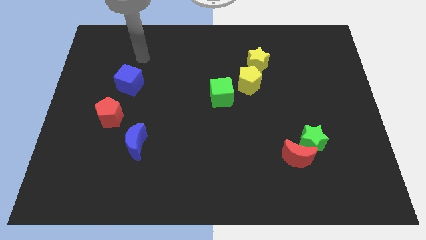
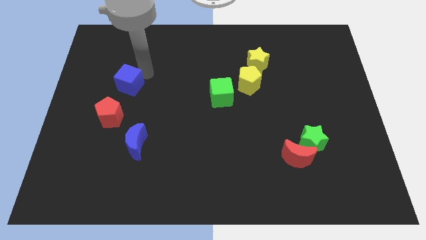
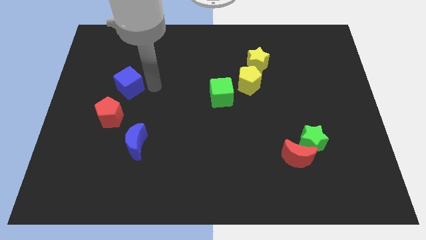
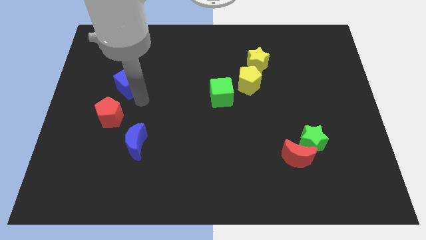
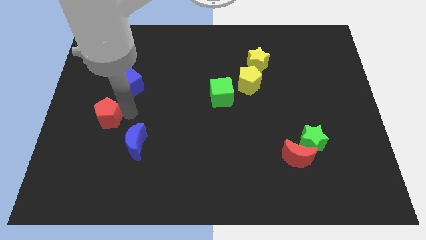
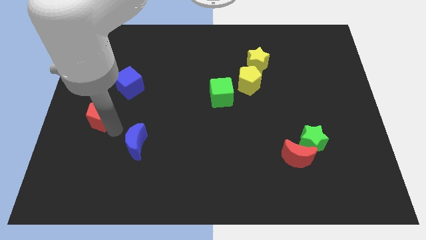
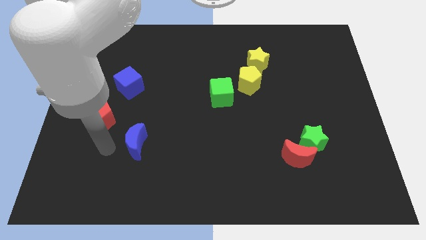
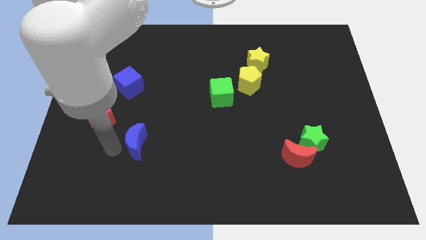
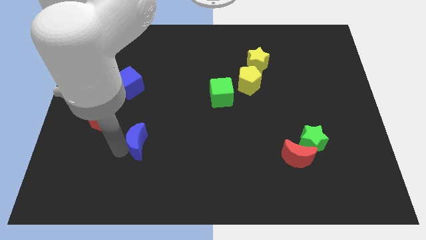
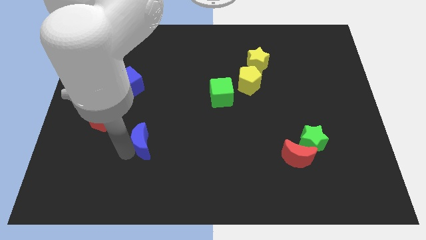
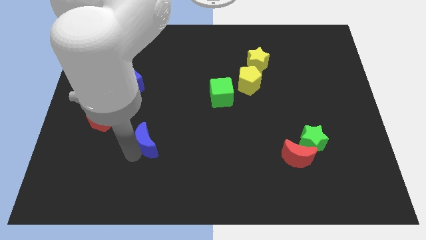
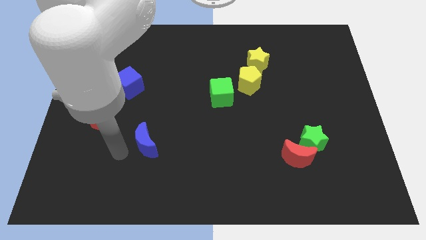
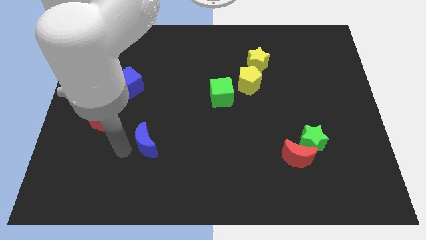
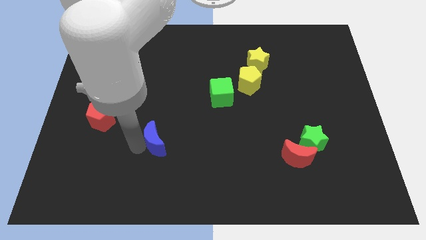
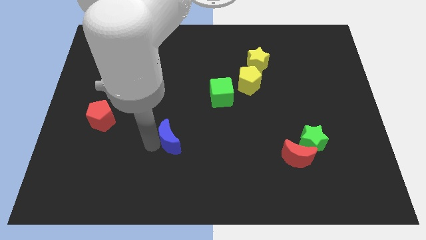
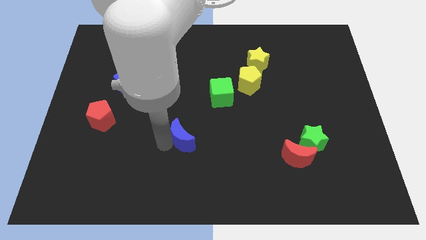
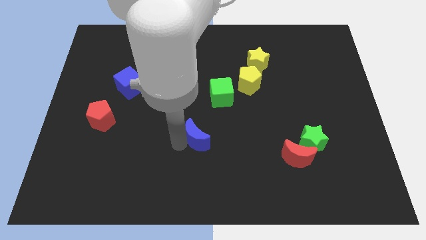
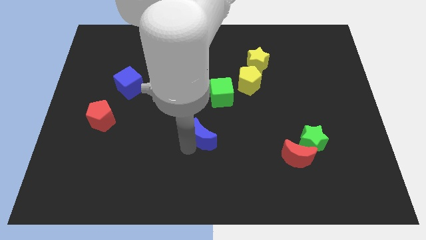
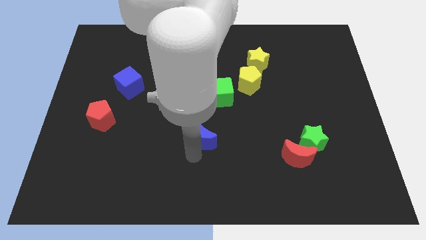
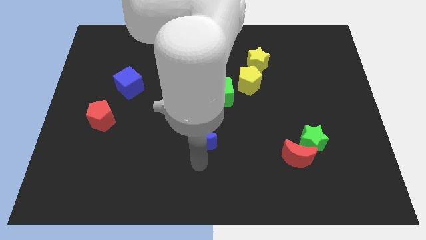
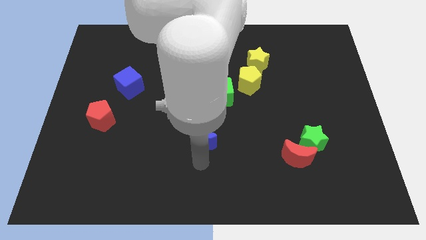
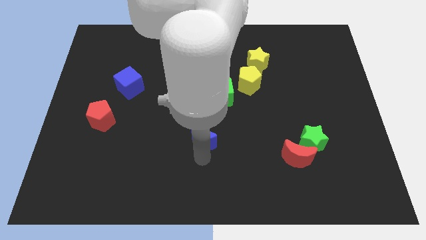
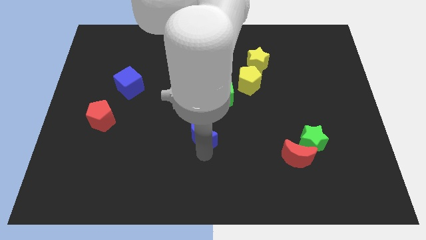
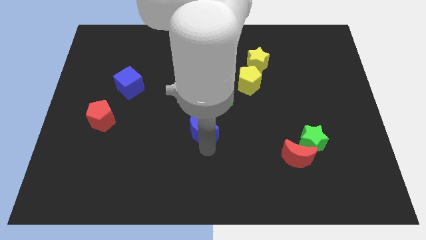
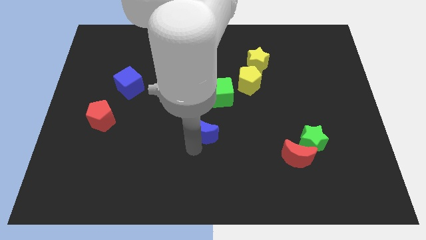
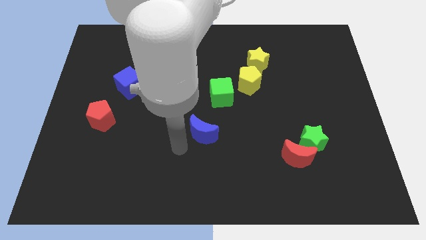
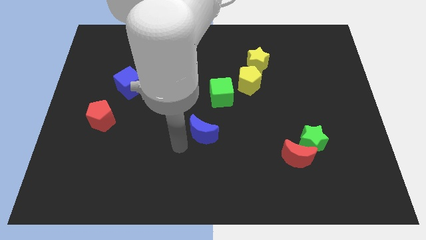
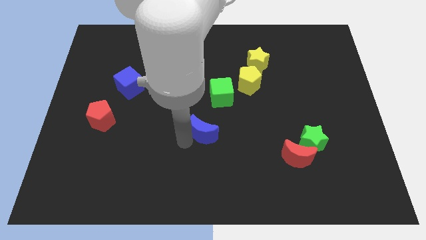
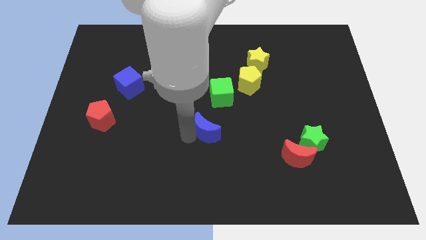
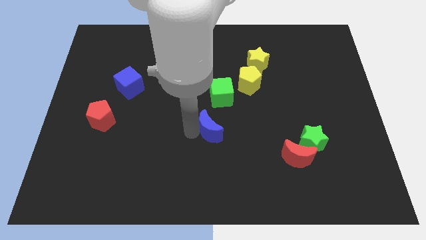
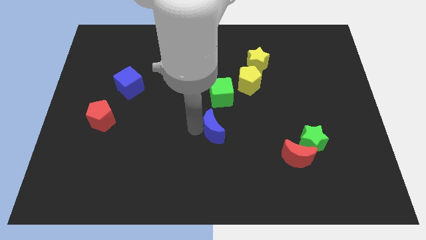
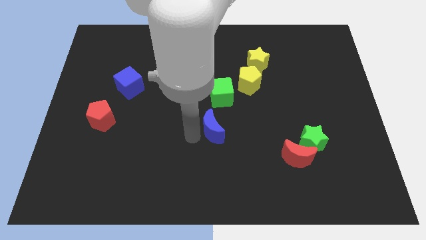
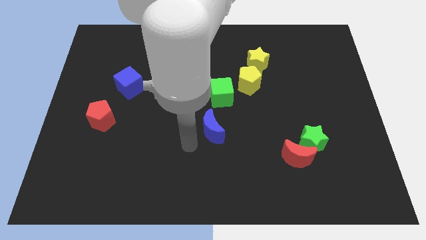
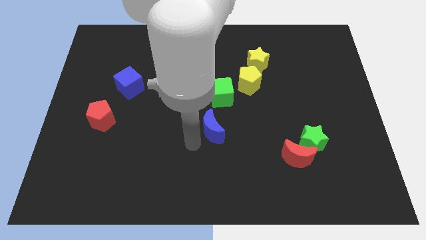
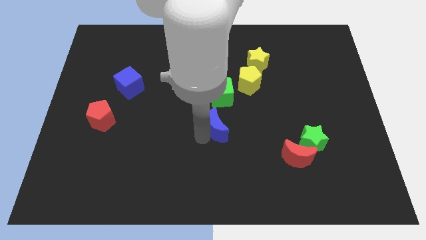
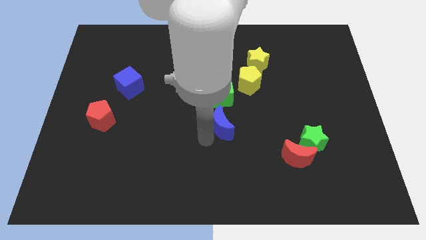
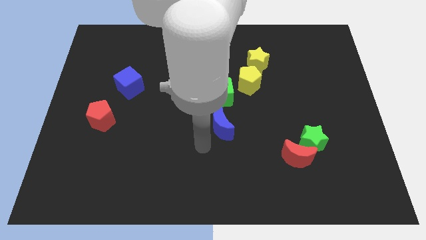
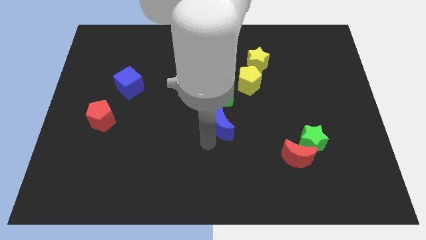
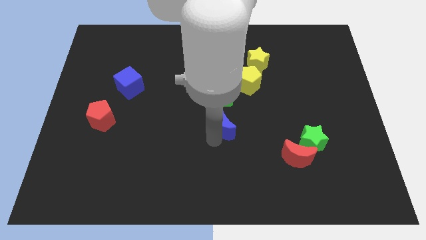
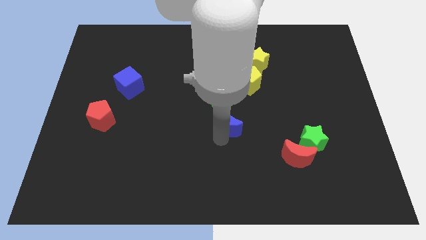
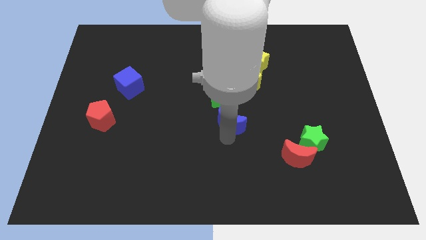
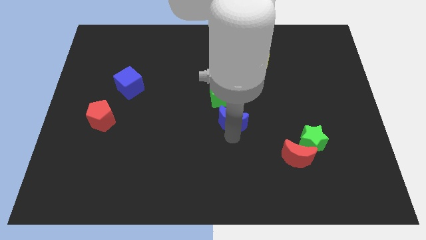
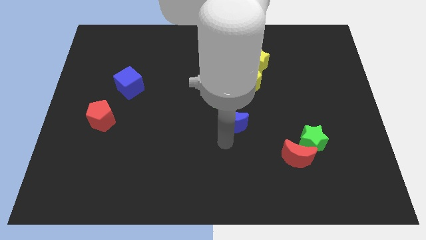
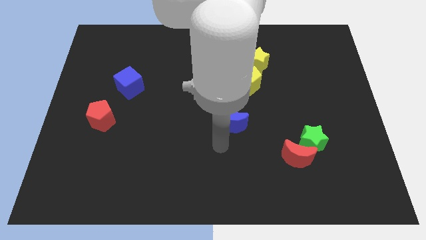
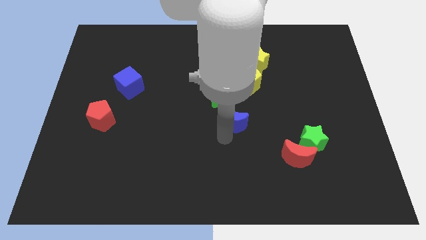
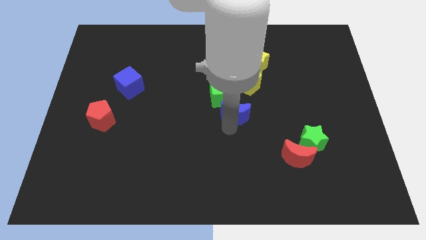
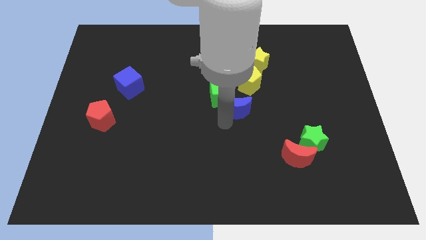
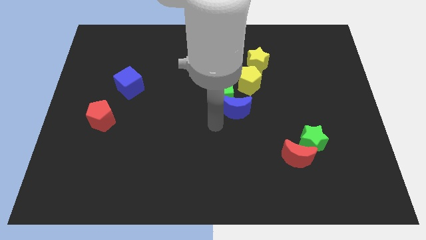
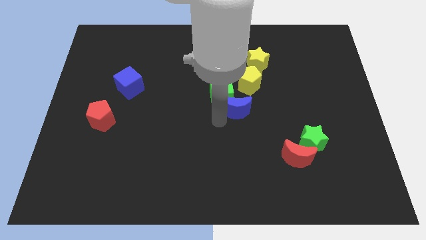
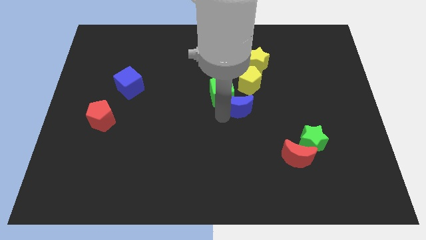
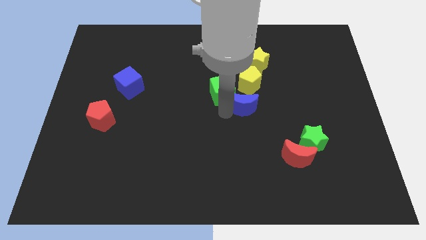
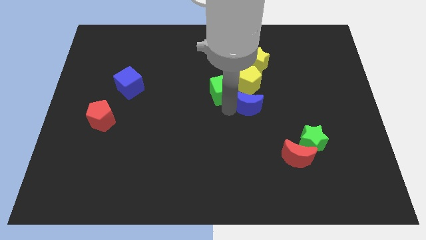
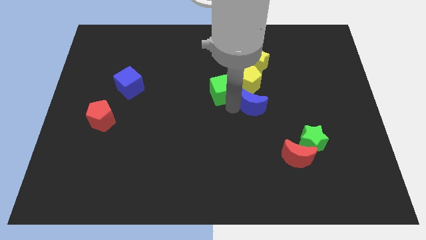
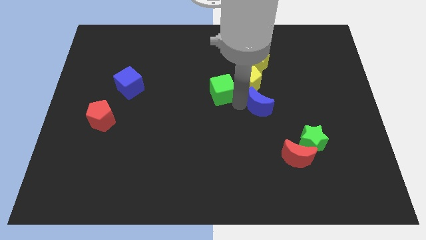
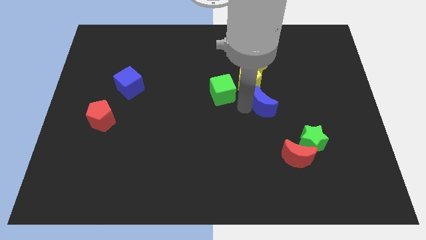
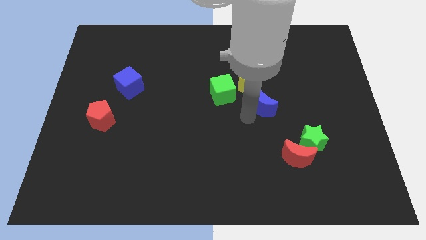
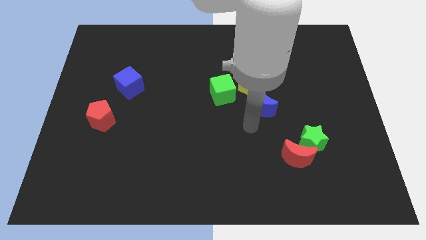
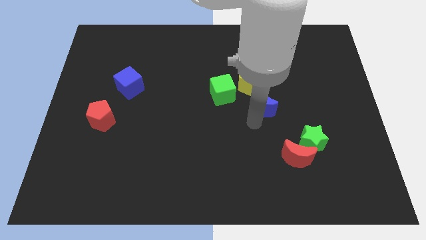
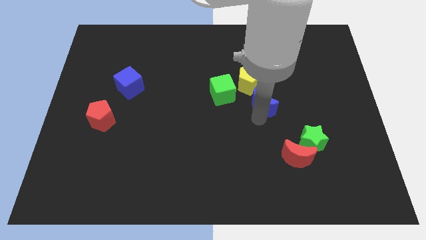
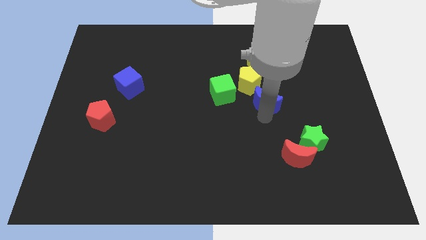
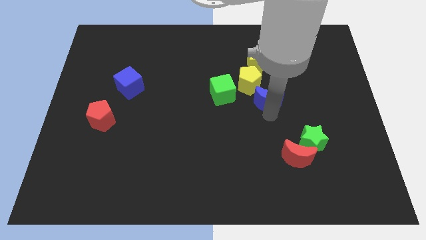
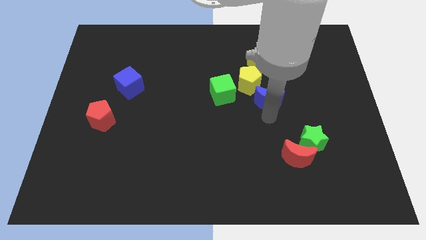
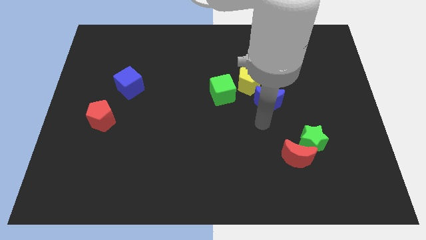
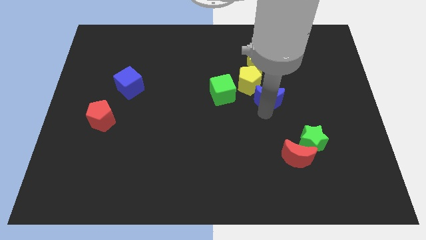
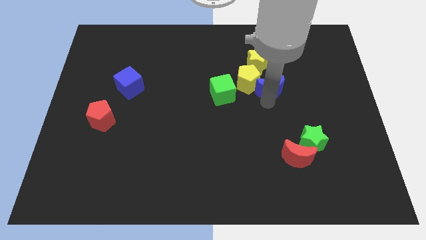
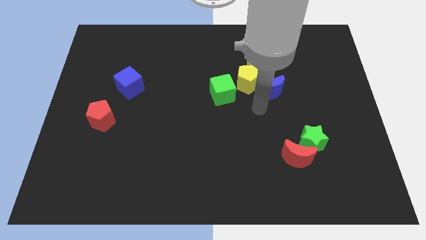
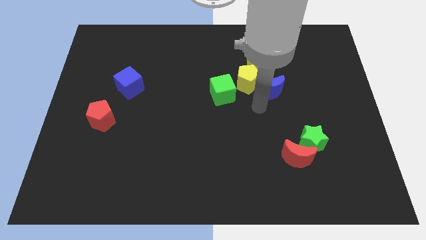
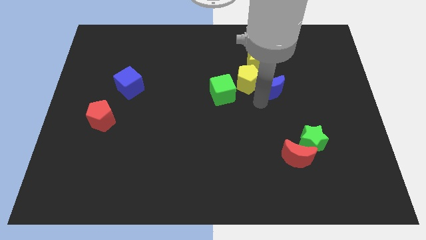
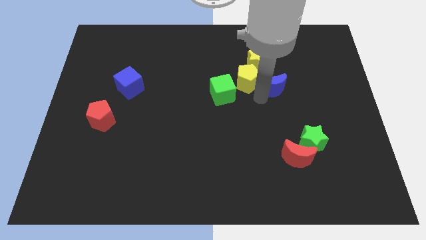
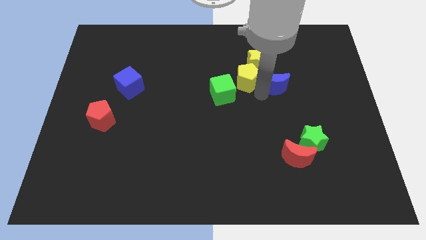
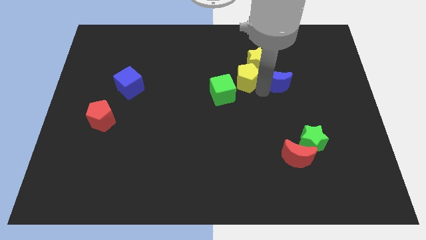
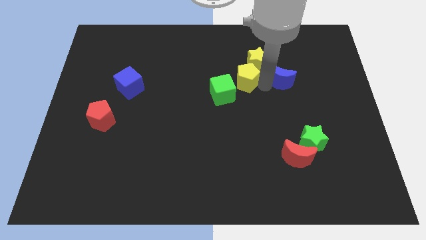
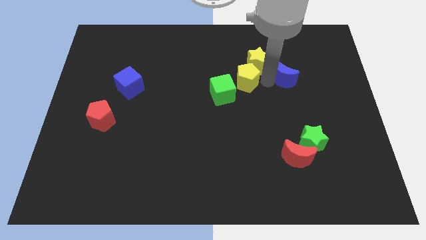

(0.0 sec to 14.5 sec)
put the blue moon to the right of the yellow star
